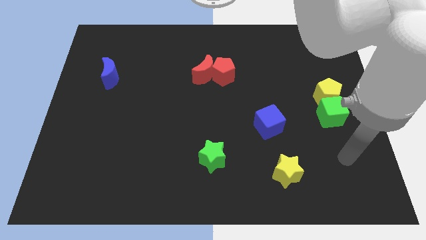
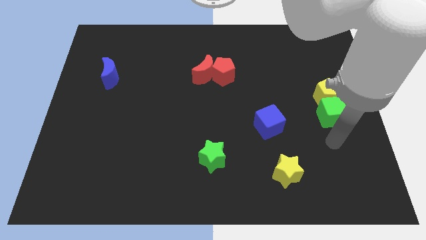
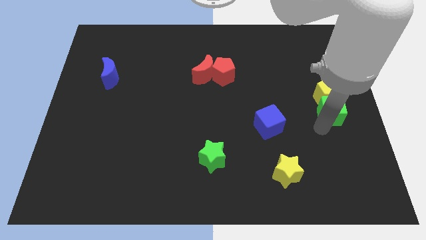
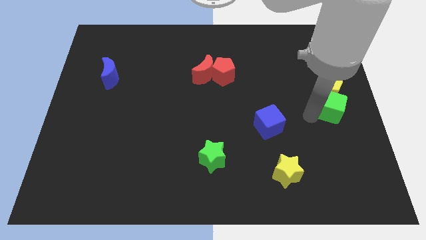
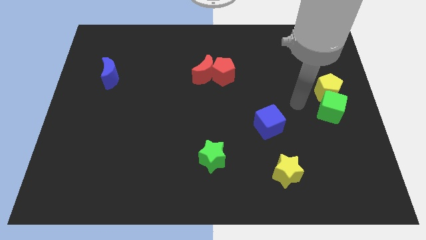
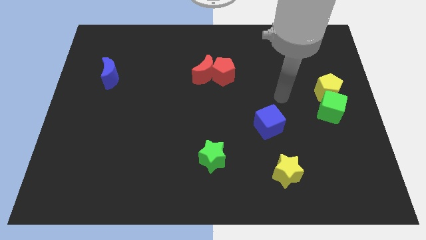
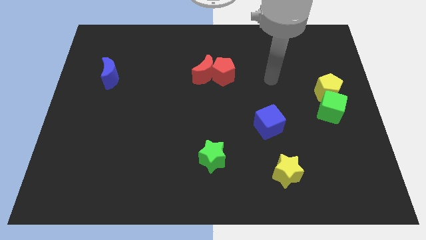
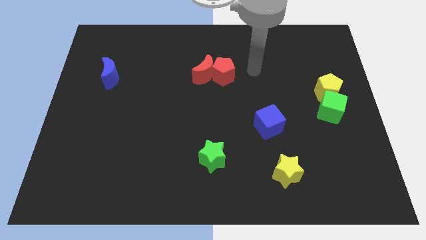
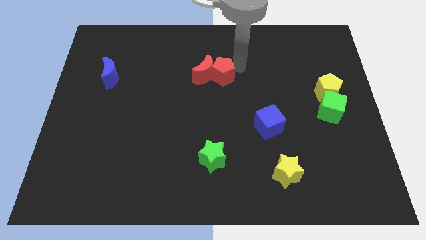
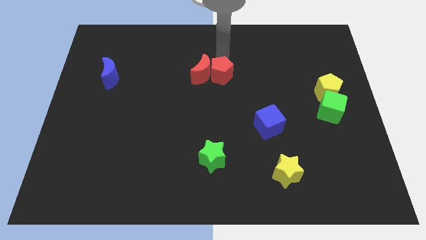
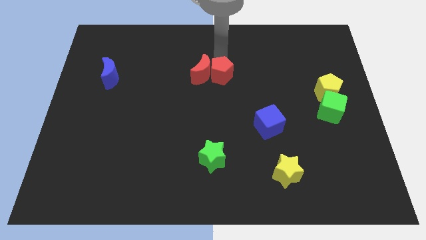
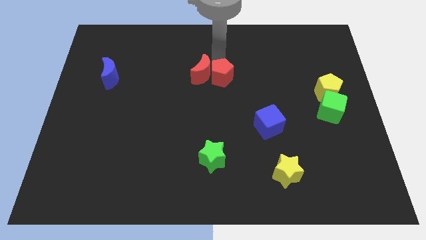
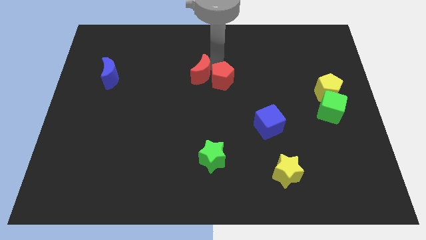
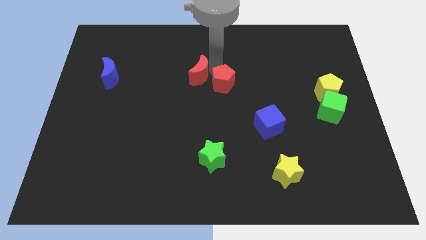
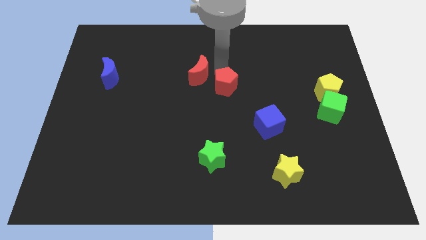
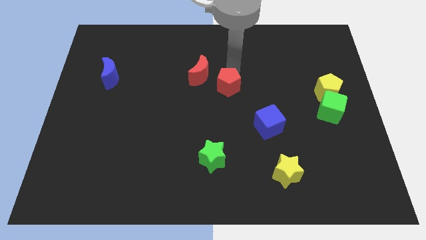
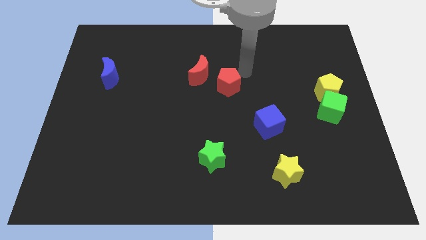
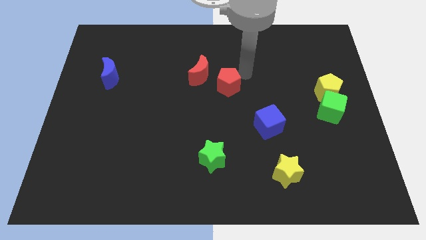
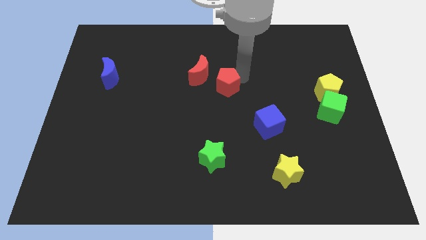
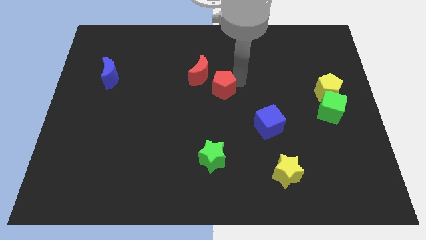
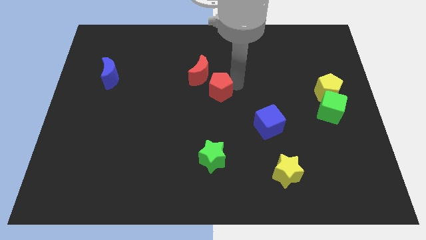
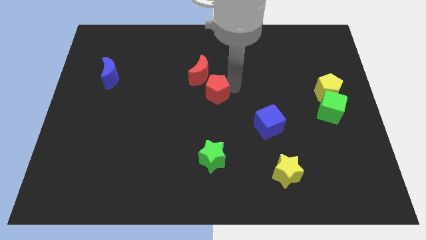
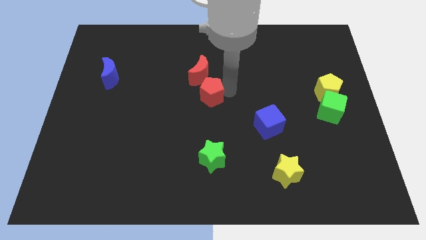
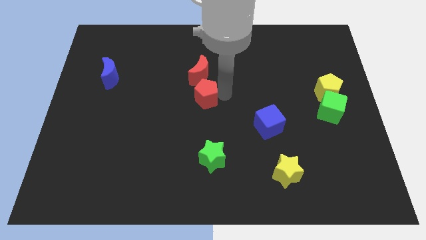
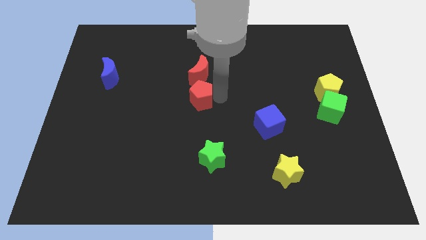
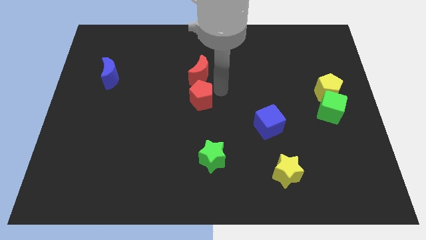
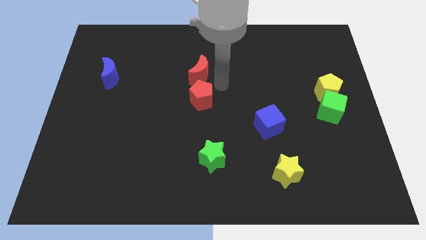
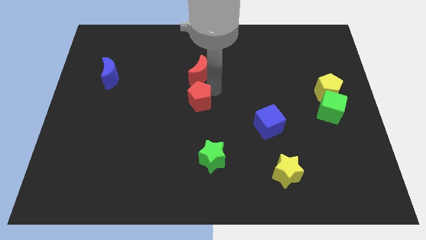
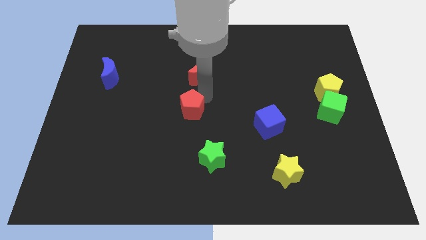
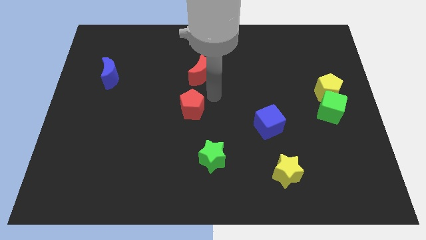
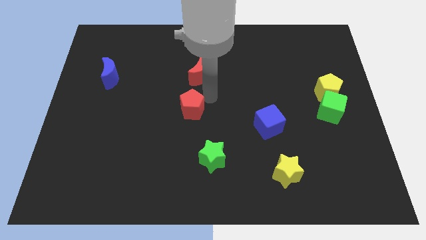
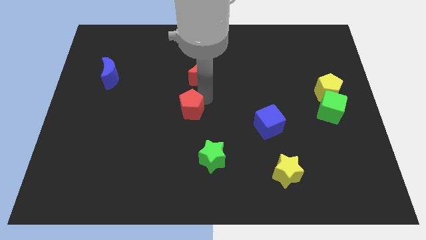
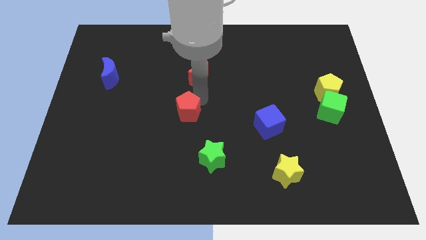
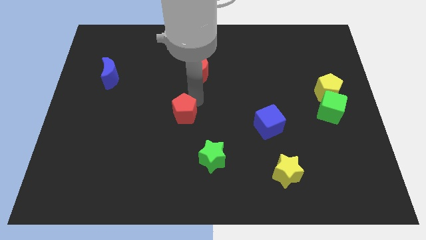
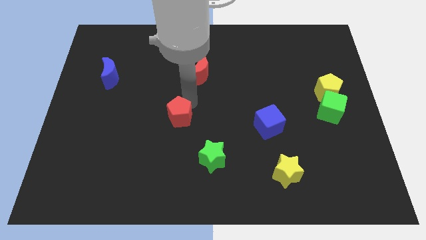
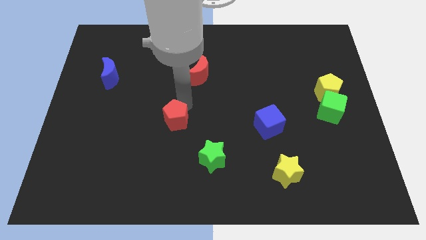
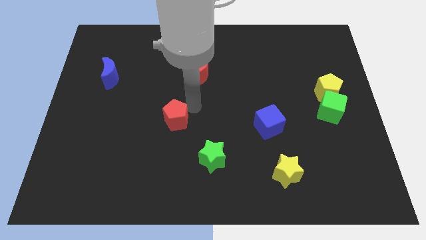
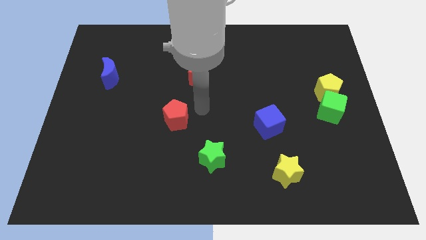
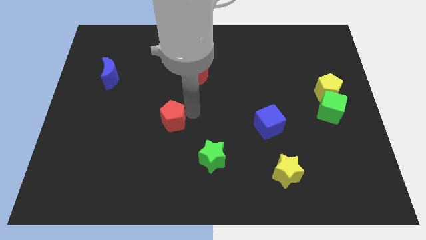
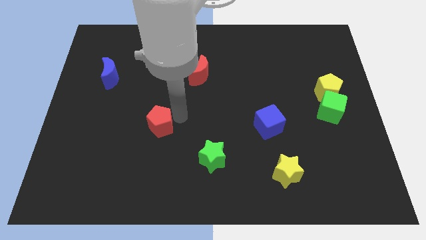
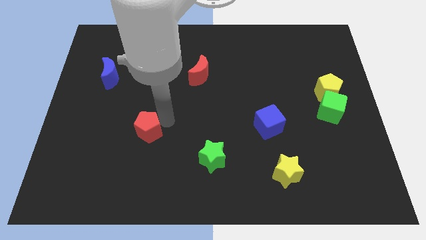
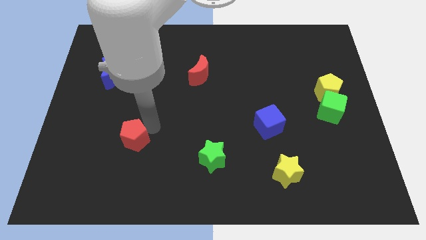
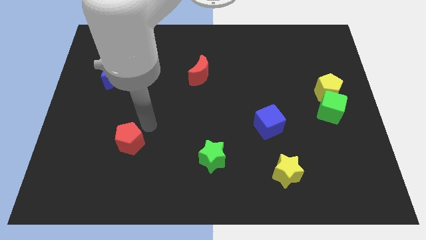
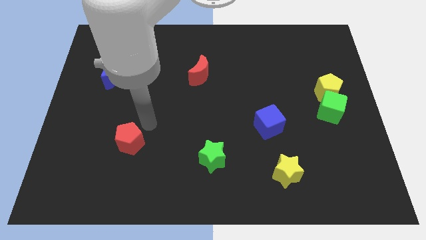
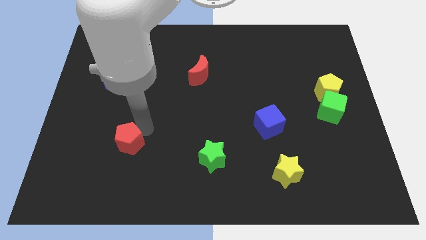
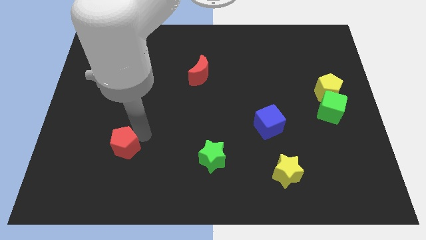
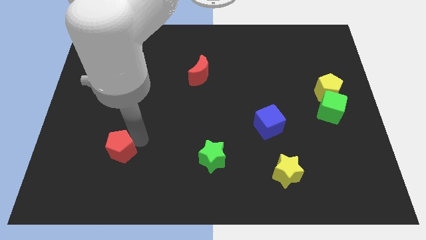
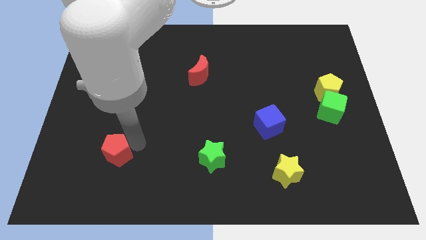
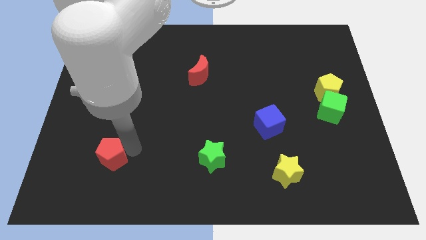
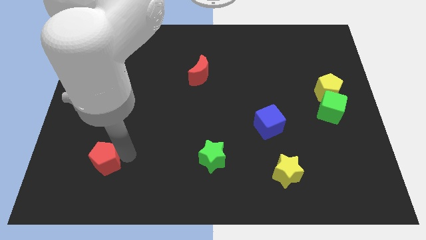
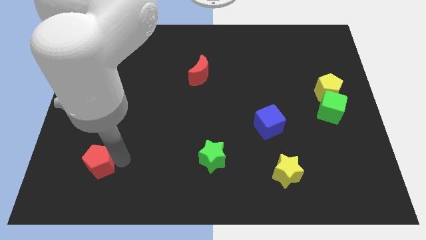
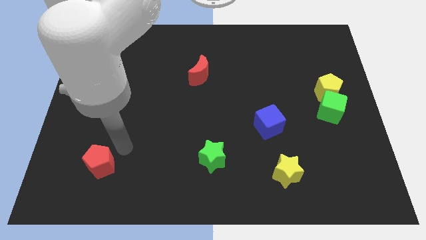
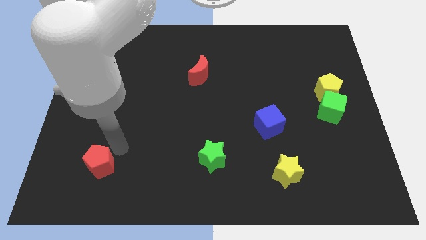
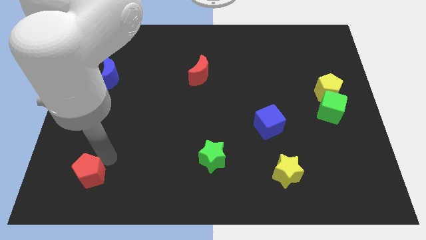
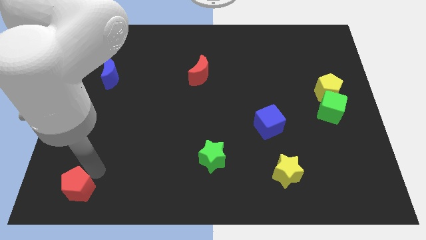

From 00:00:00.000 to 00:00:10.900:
push the red pentagon to the bottom left of the board

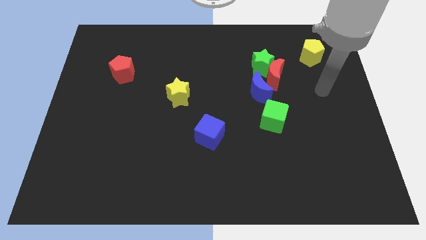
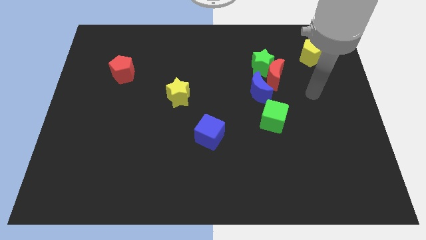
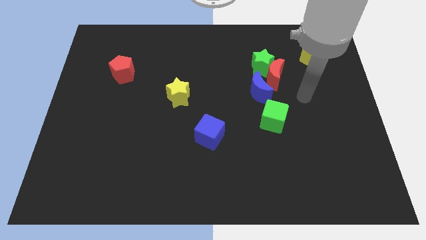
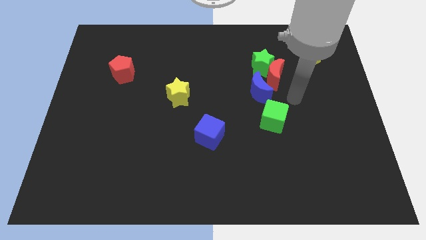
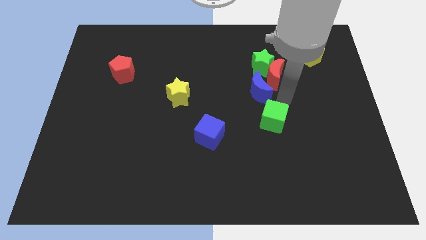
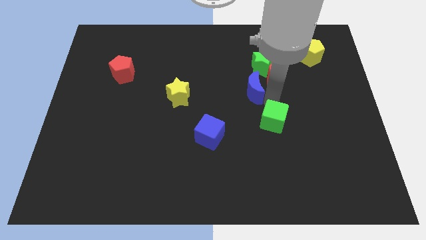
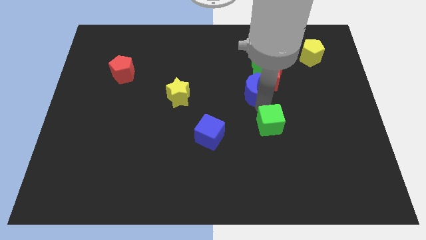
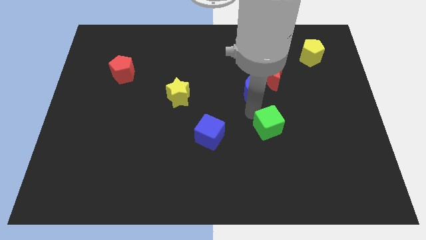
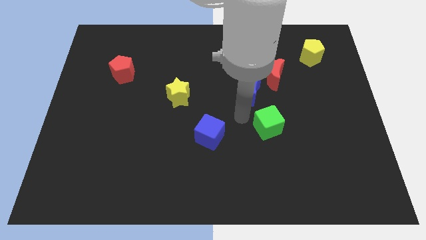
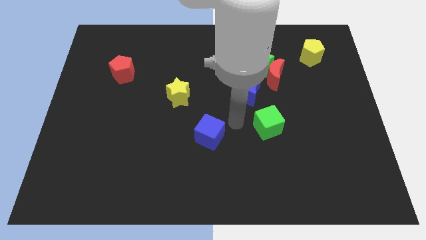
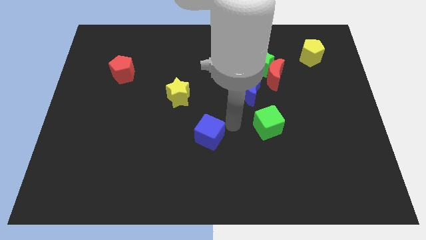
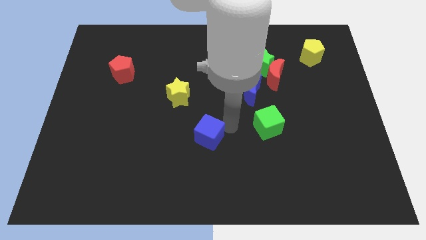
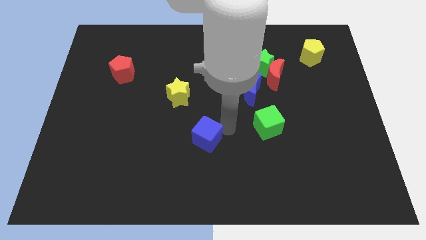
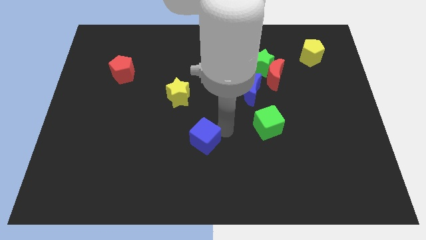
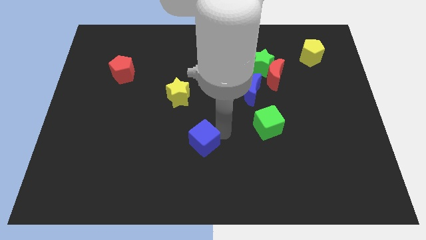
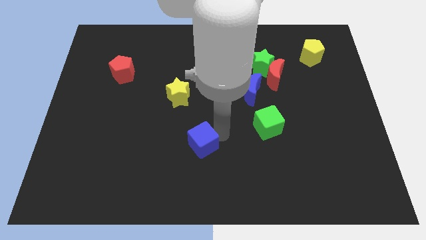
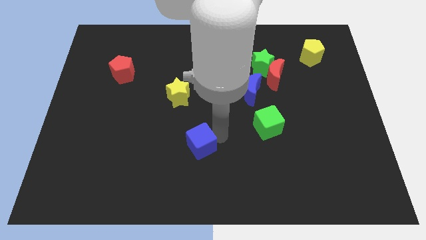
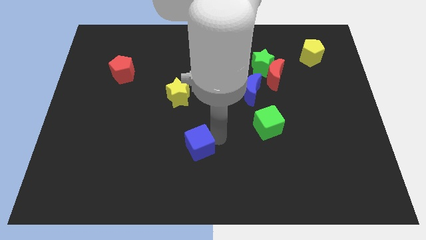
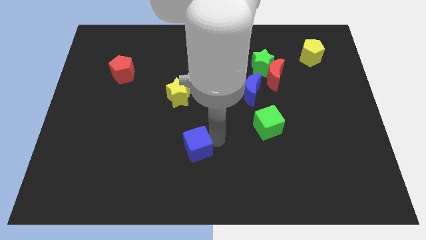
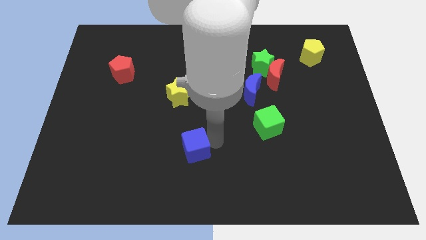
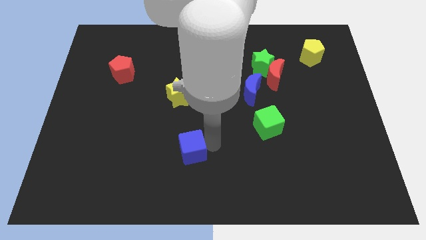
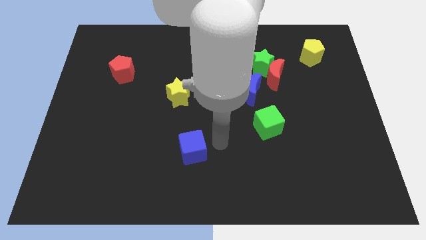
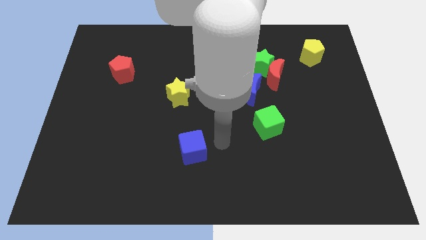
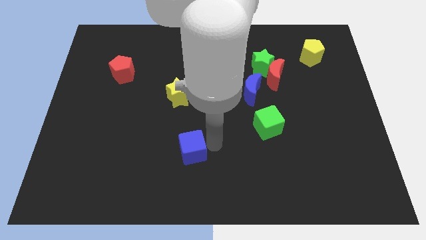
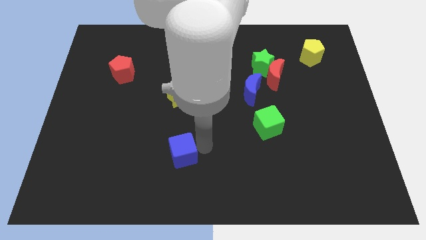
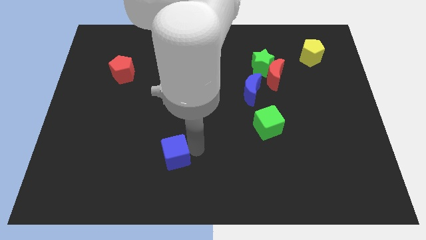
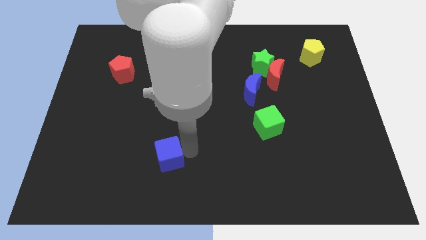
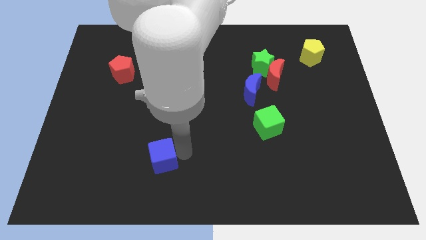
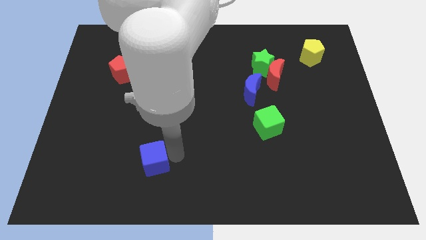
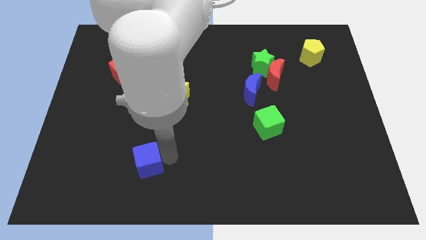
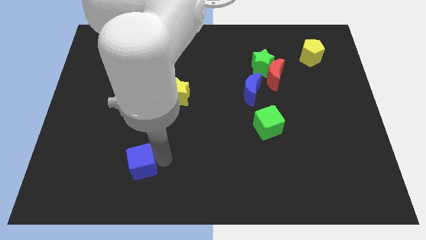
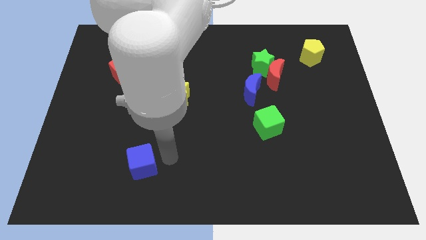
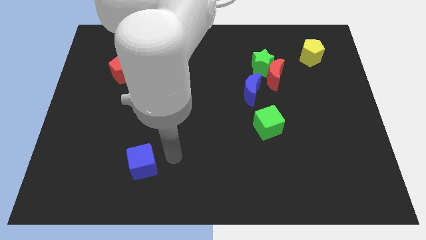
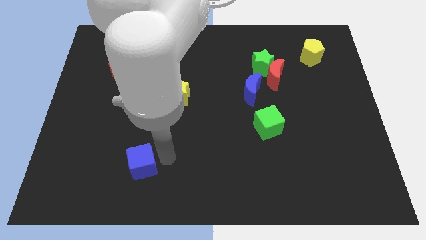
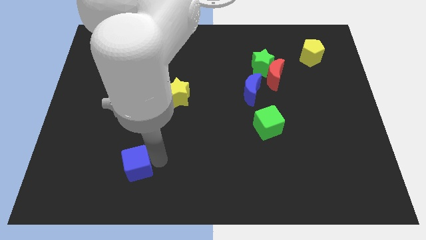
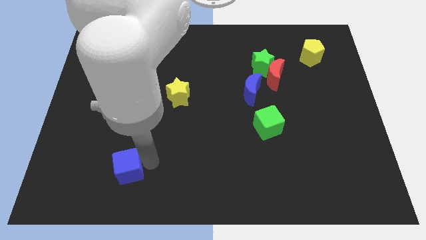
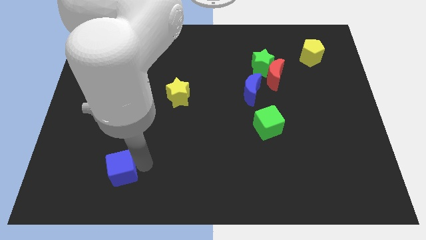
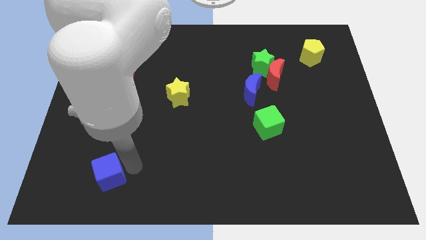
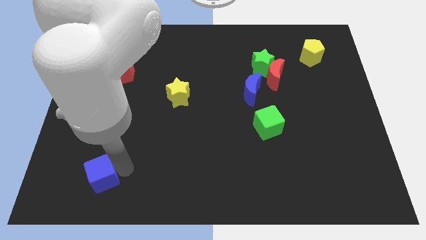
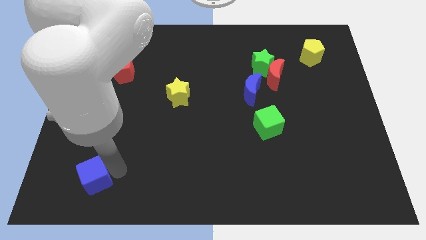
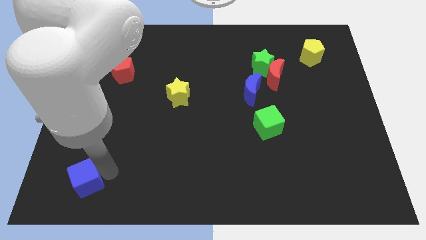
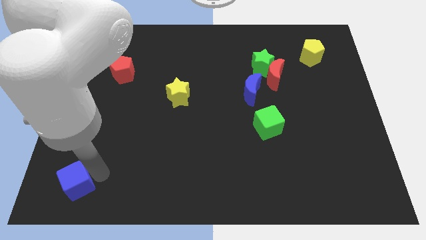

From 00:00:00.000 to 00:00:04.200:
put the blue cube to the lower left corner
